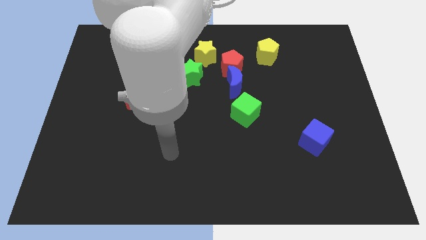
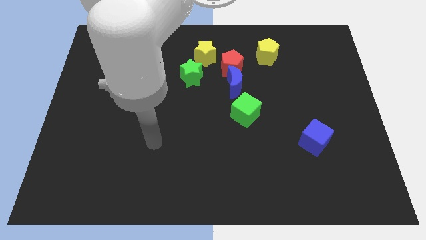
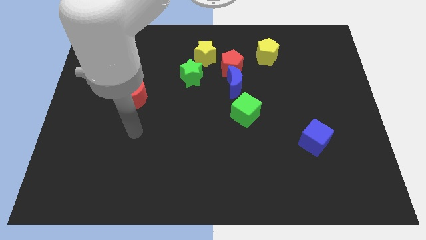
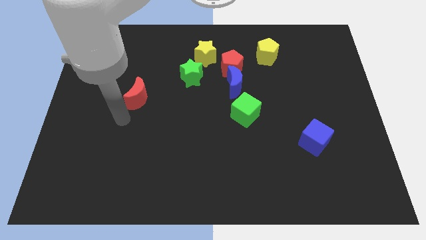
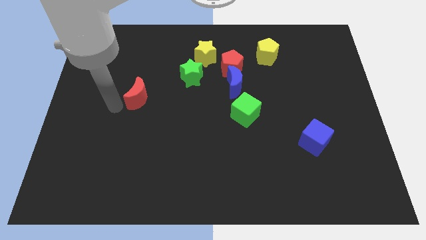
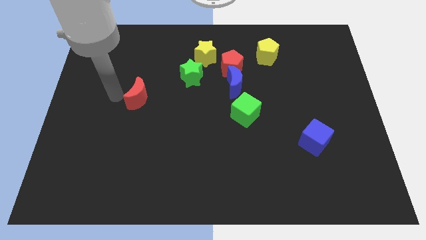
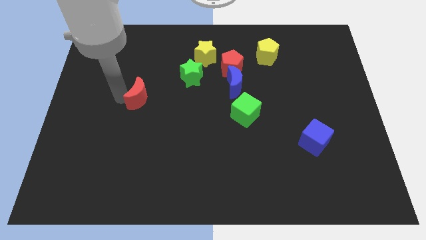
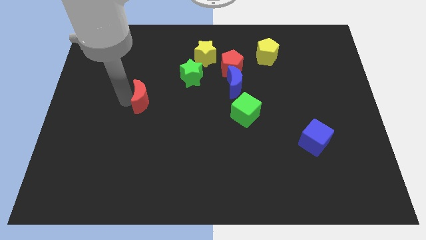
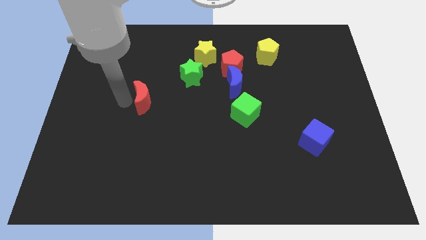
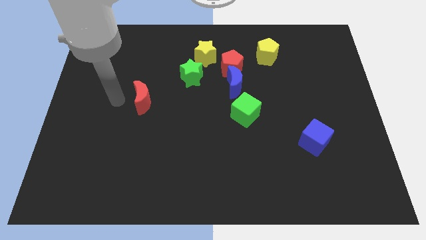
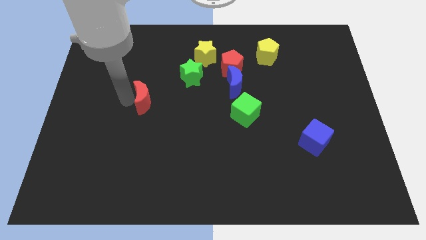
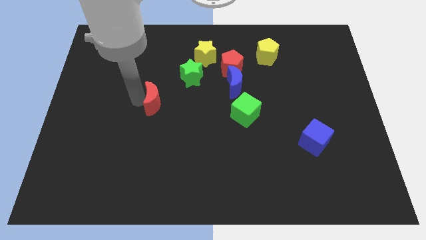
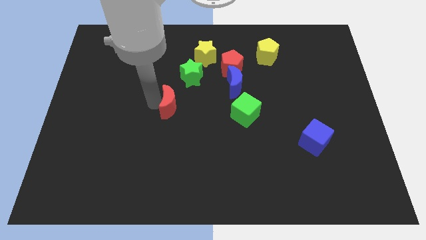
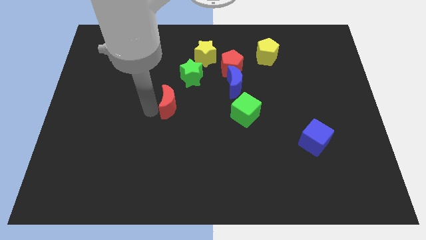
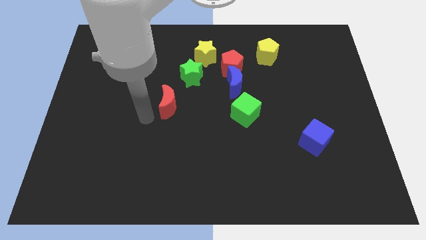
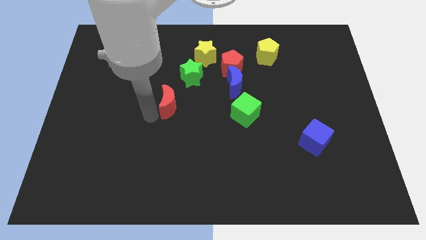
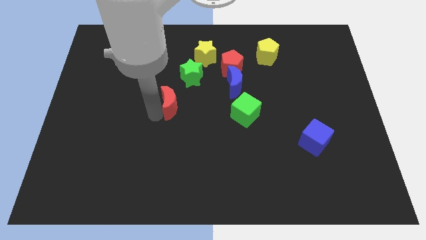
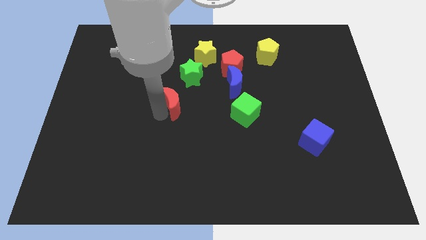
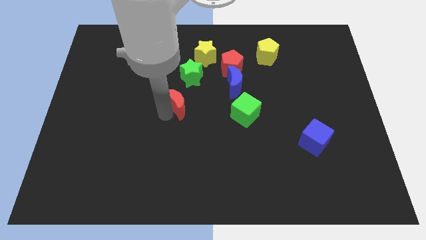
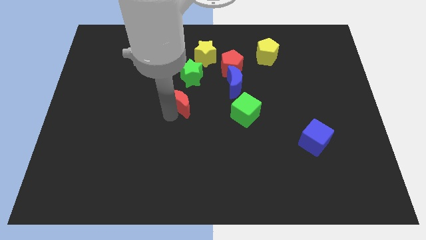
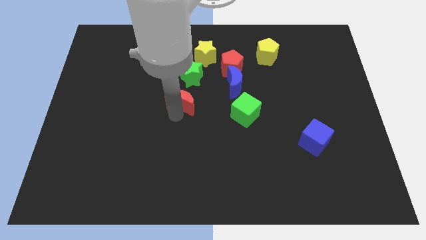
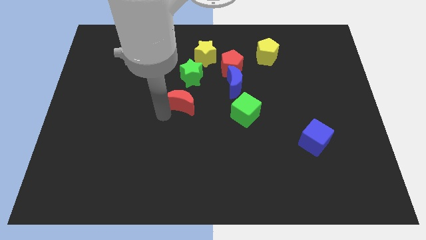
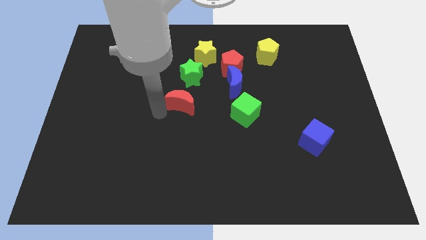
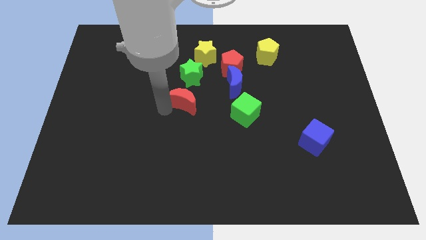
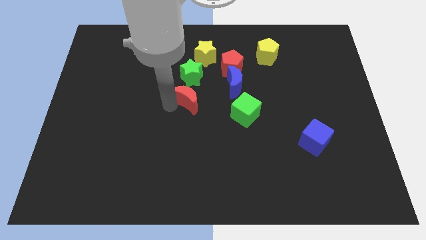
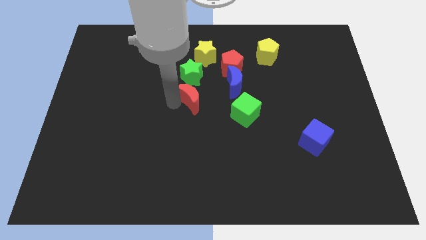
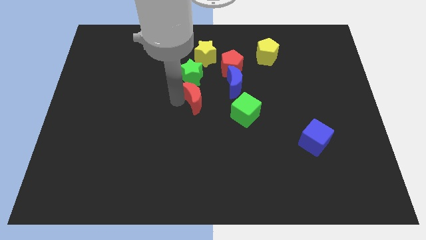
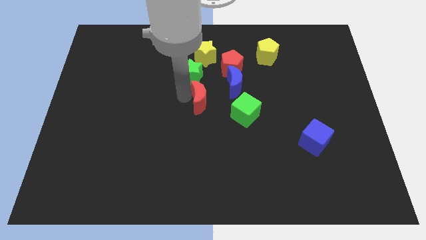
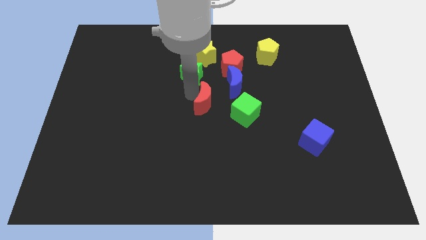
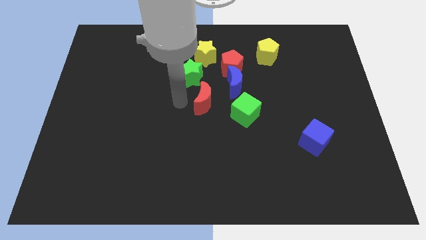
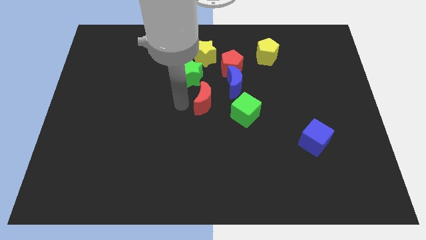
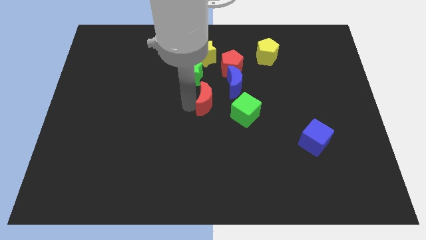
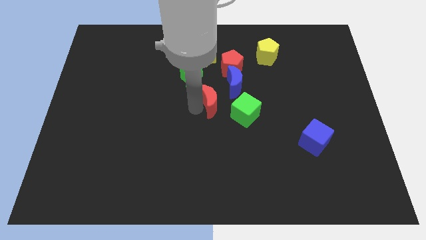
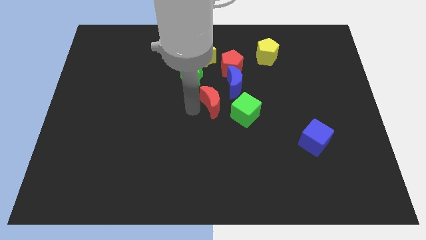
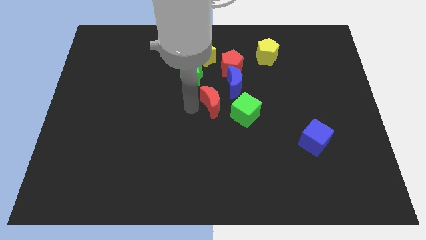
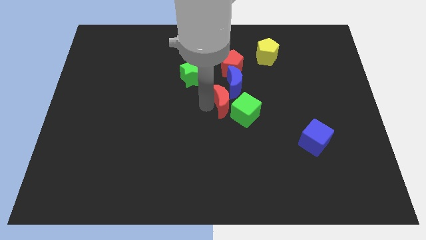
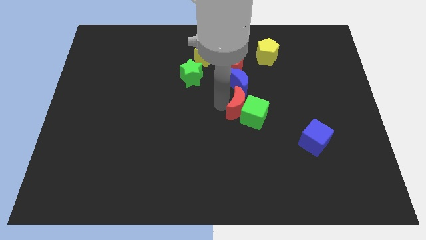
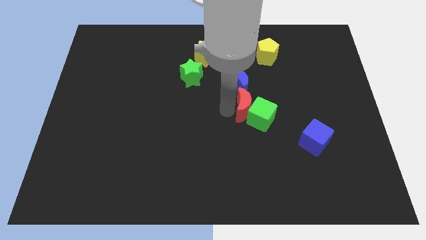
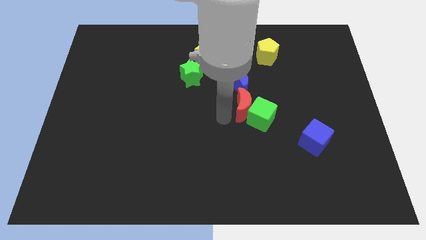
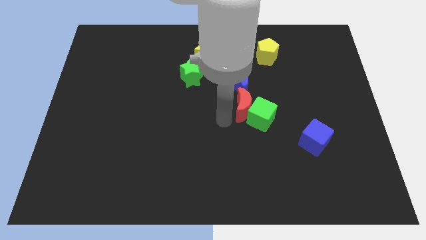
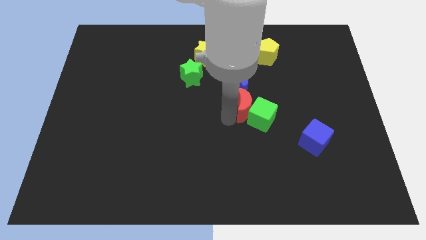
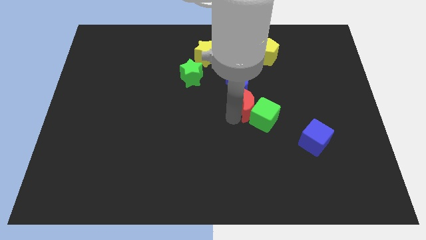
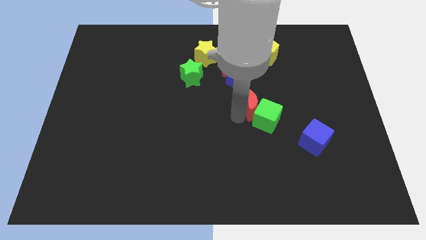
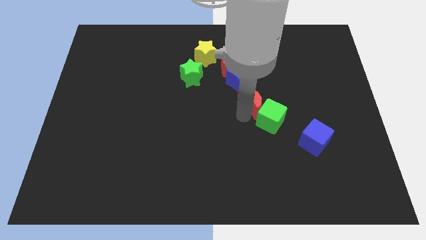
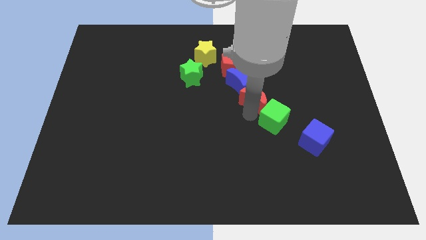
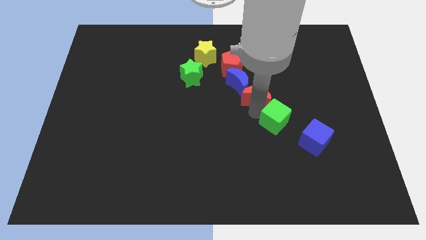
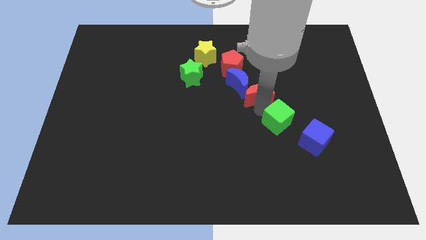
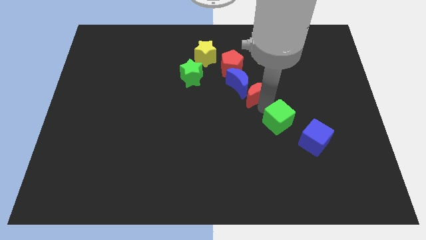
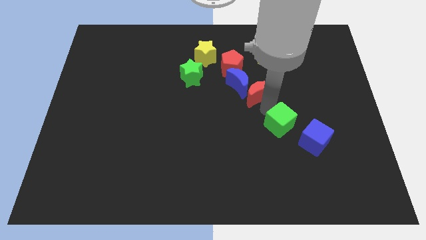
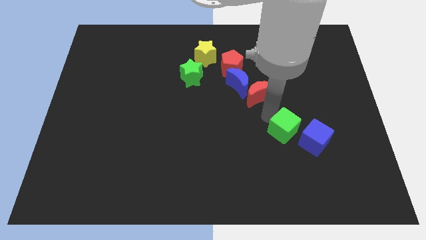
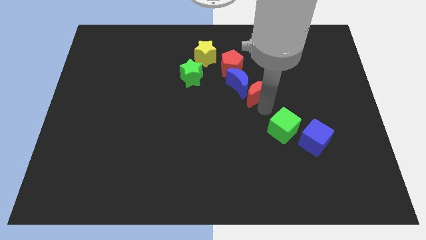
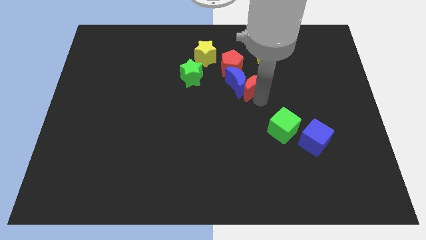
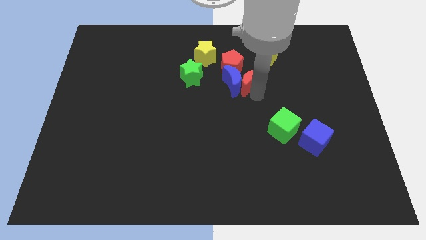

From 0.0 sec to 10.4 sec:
move the red moon diagonally down and to the left of the yellow pentagon

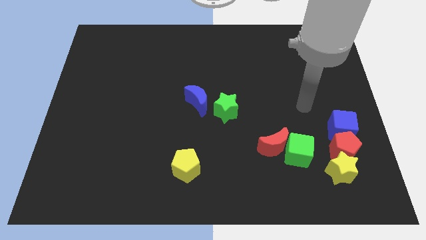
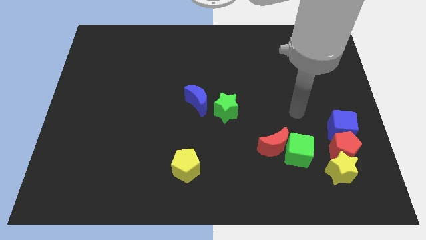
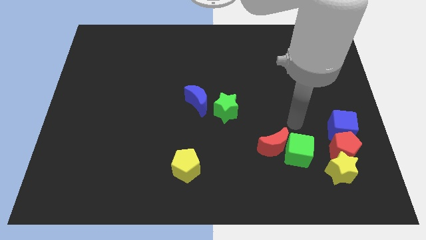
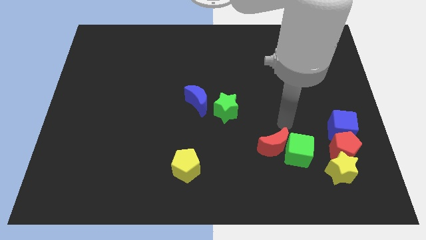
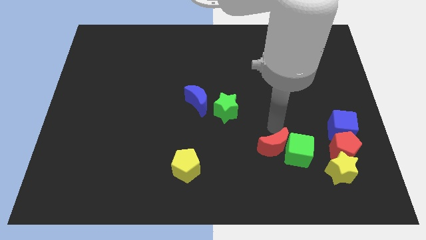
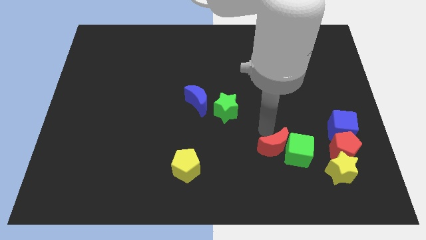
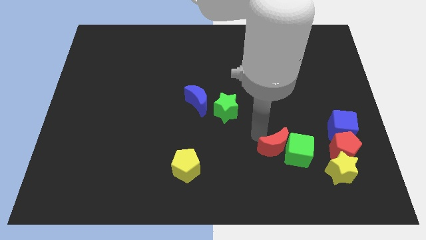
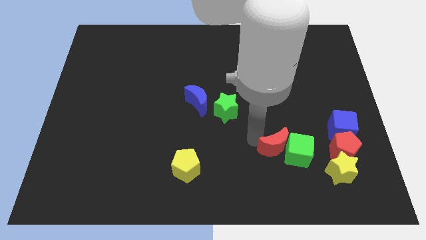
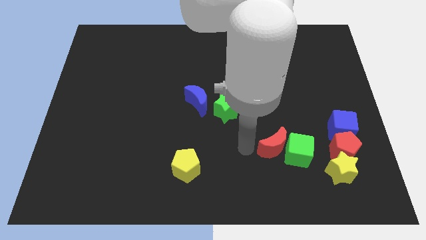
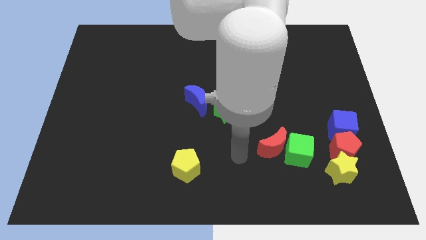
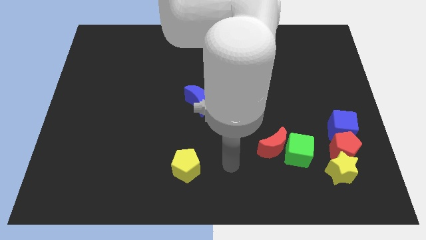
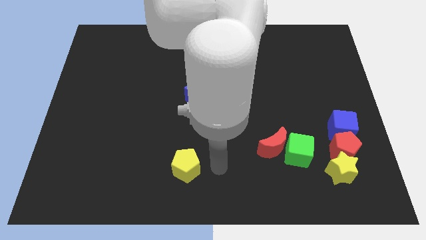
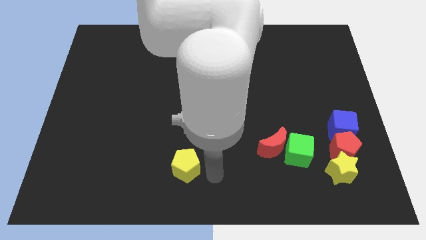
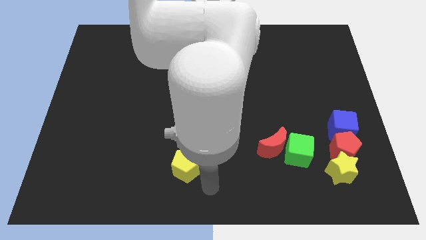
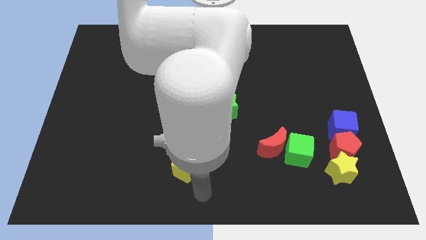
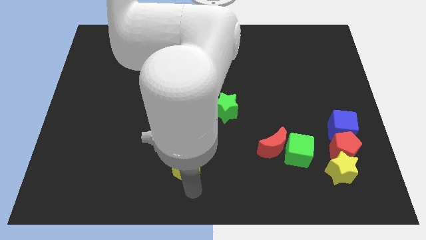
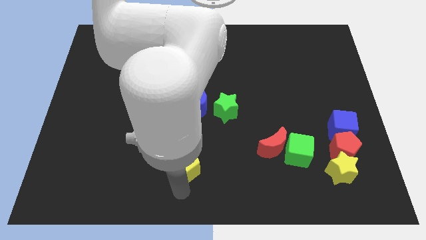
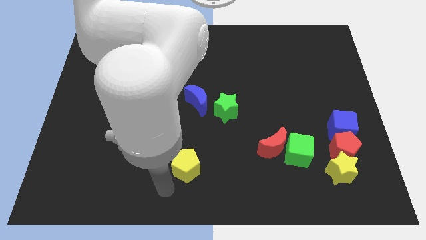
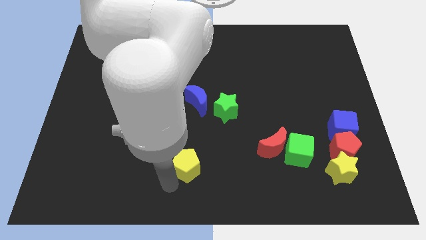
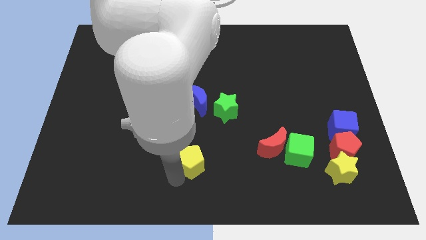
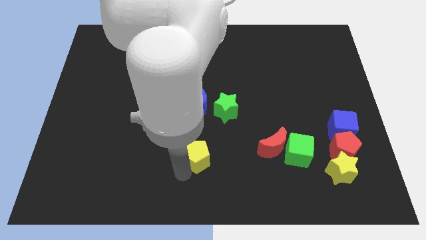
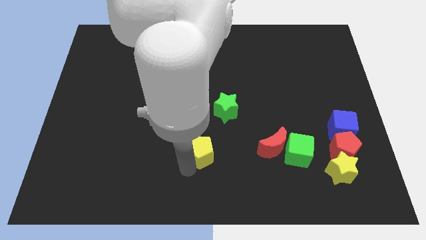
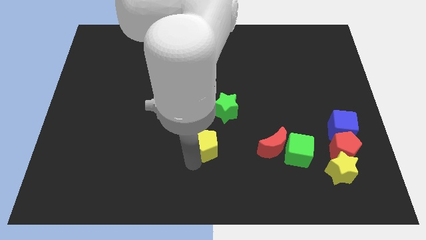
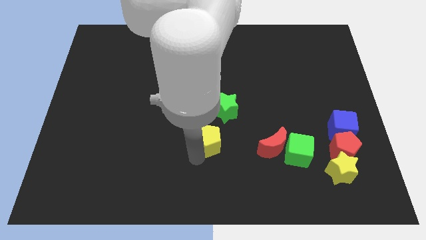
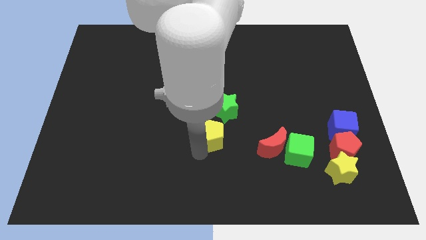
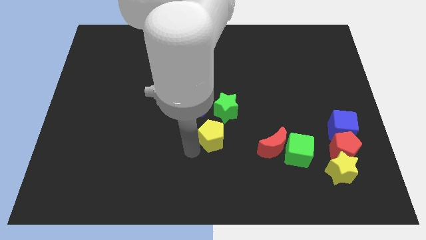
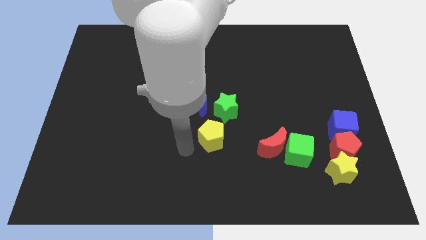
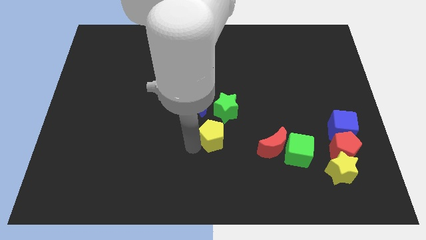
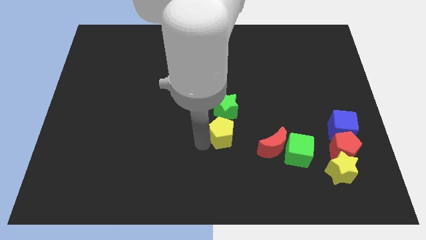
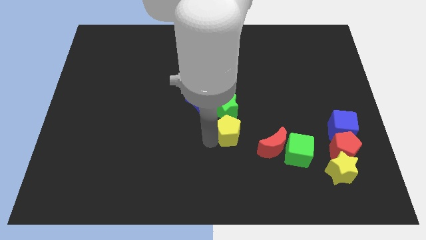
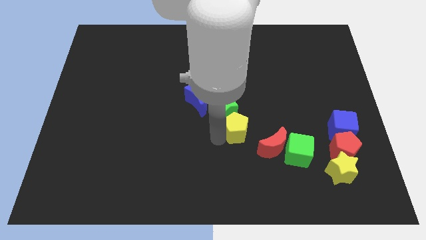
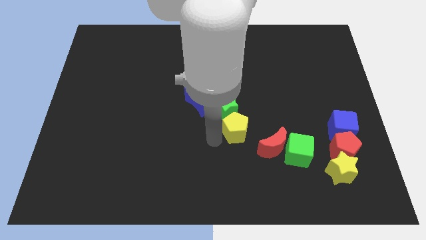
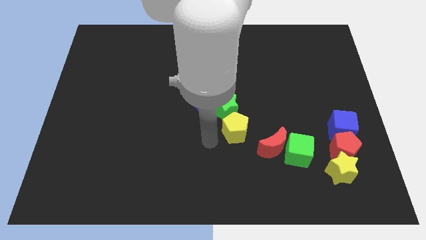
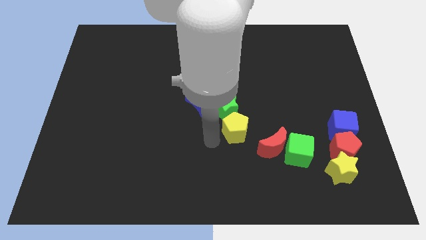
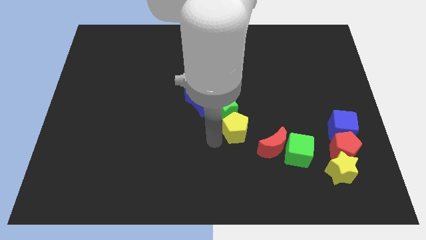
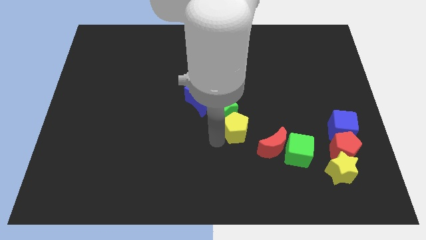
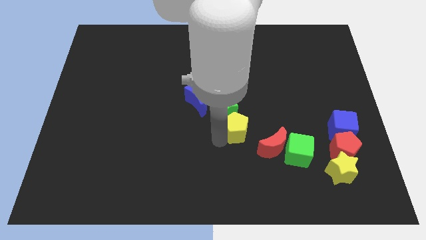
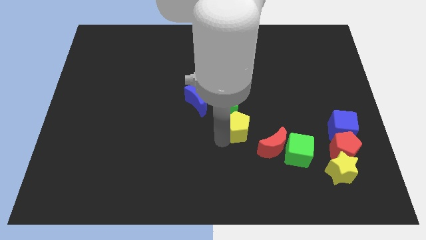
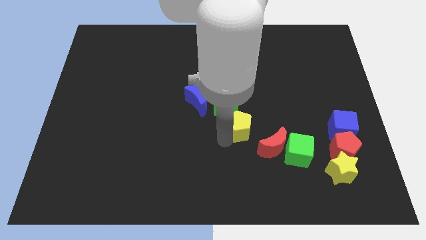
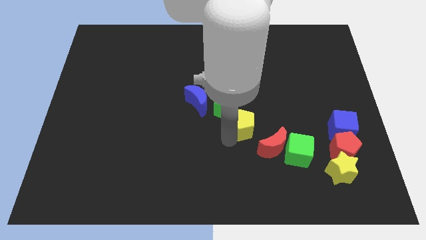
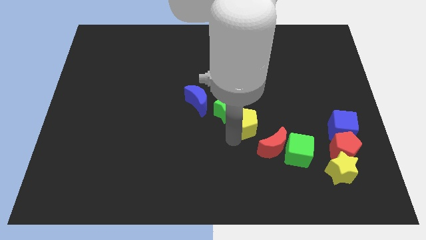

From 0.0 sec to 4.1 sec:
slide the yellow pentagon right of the green star
